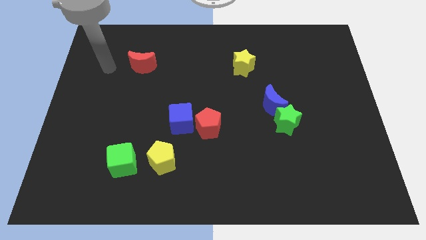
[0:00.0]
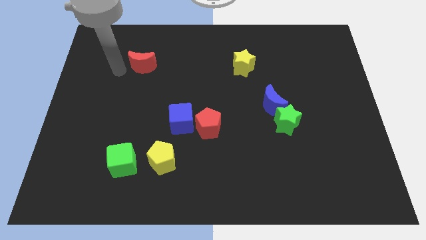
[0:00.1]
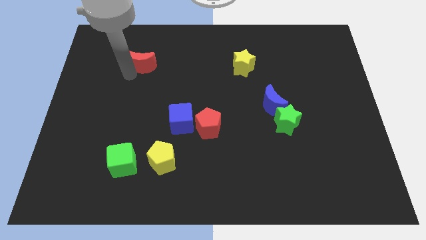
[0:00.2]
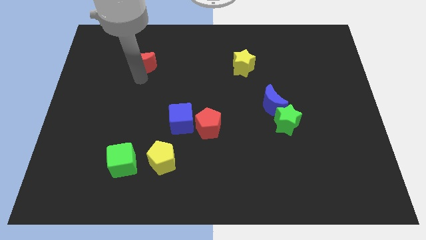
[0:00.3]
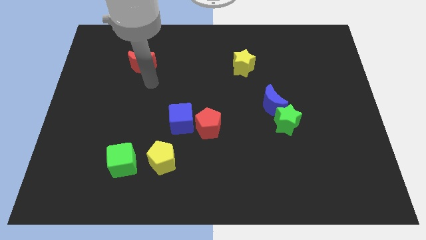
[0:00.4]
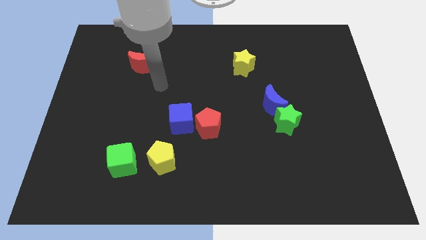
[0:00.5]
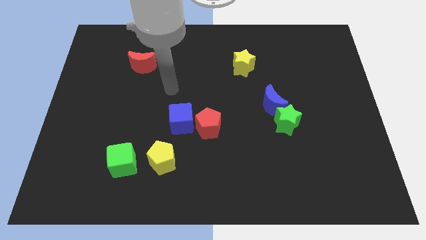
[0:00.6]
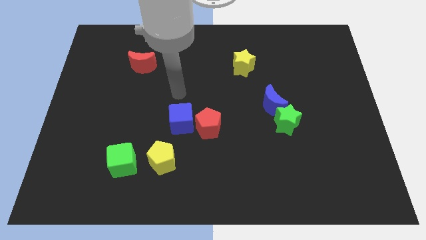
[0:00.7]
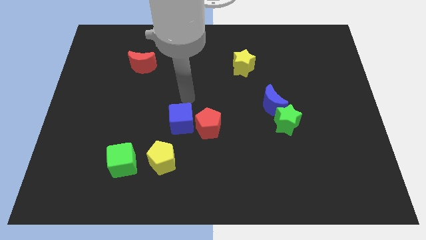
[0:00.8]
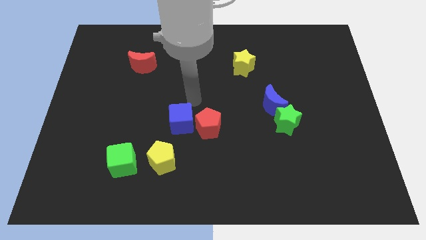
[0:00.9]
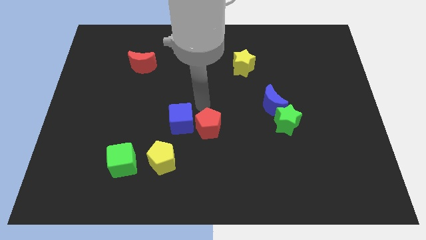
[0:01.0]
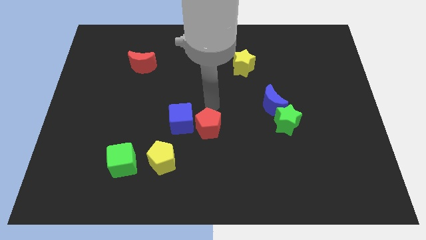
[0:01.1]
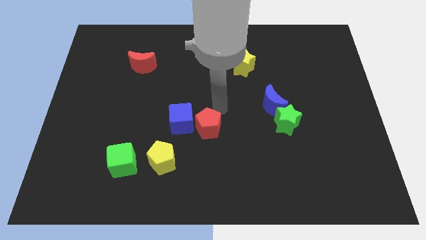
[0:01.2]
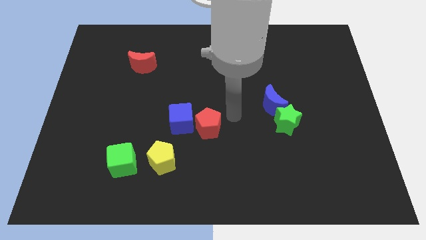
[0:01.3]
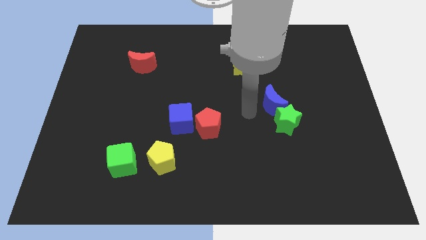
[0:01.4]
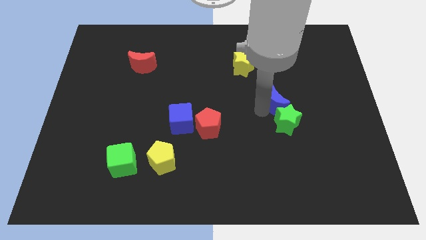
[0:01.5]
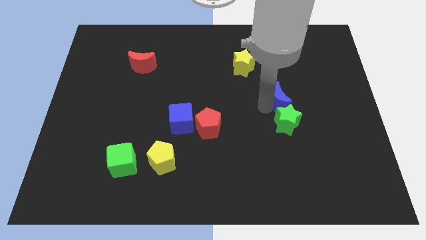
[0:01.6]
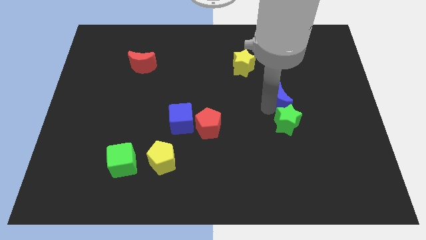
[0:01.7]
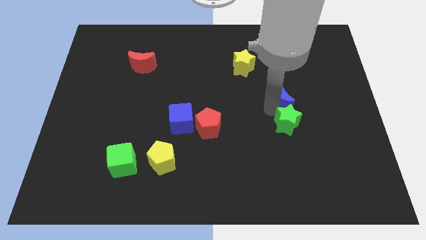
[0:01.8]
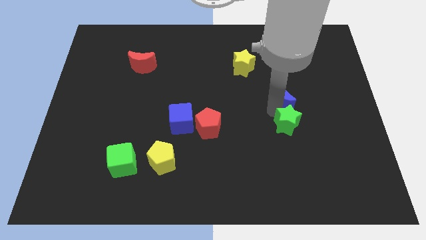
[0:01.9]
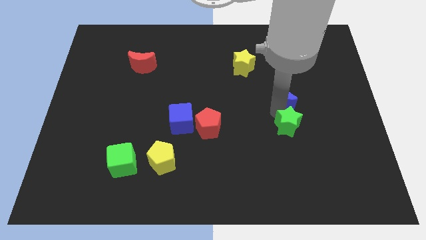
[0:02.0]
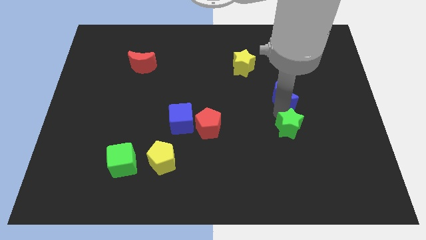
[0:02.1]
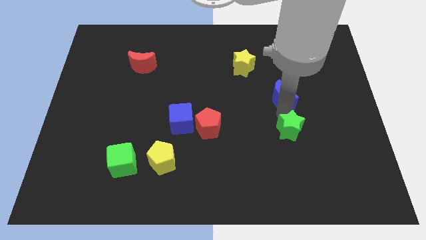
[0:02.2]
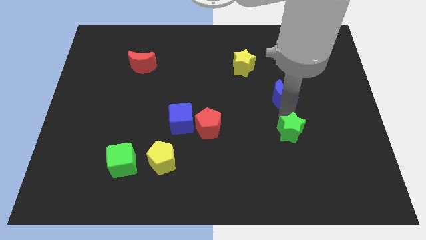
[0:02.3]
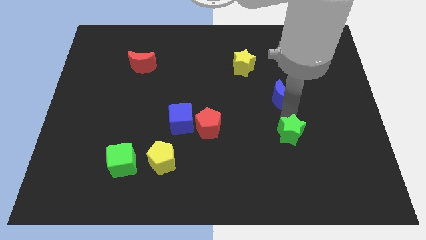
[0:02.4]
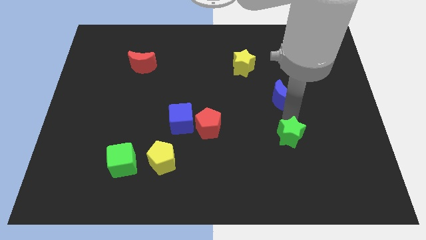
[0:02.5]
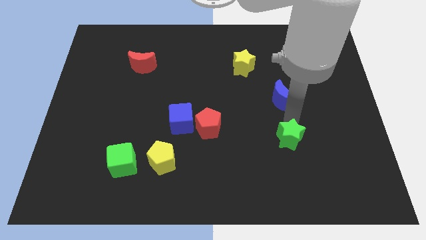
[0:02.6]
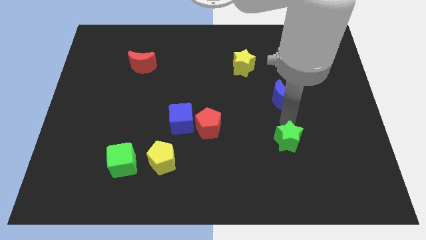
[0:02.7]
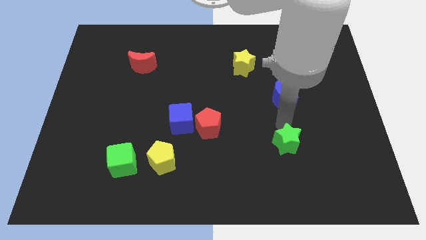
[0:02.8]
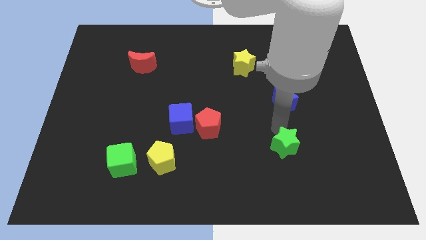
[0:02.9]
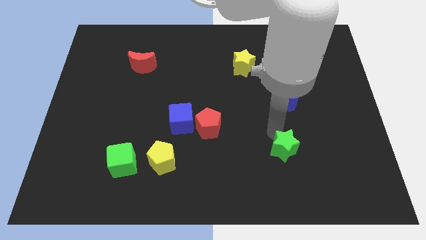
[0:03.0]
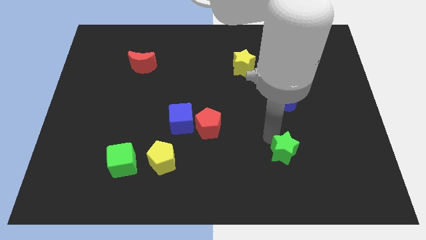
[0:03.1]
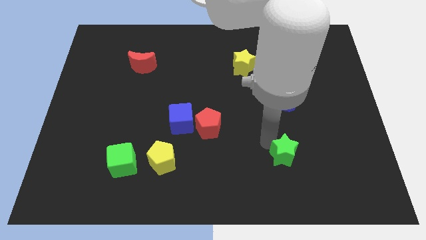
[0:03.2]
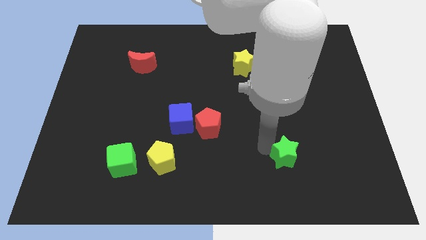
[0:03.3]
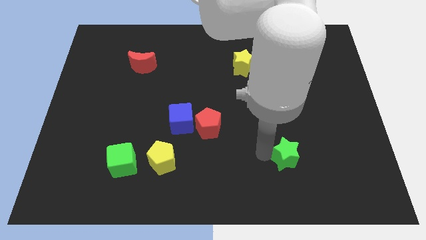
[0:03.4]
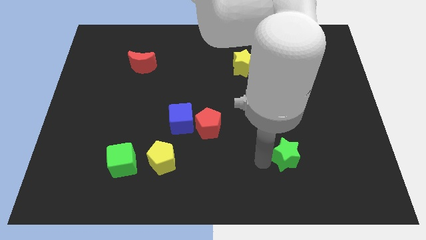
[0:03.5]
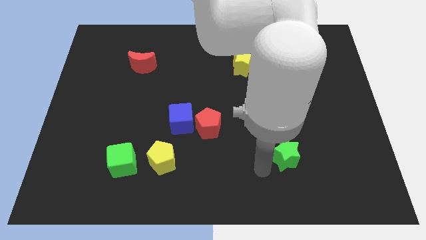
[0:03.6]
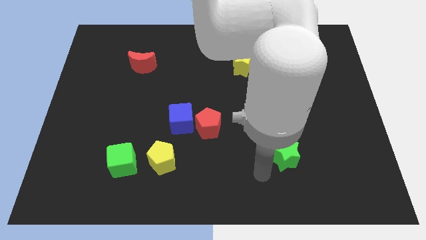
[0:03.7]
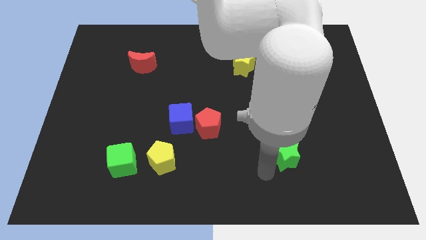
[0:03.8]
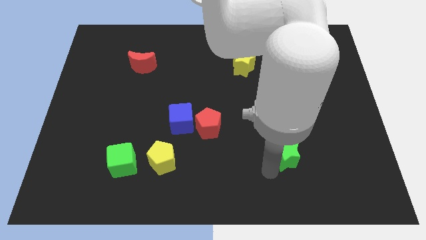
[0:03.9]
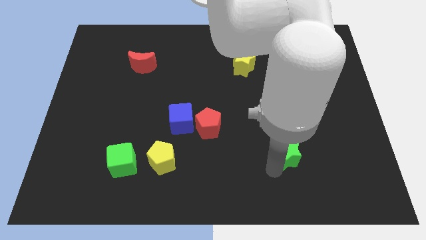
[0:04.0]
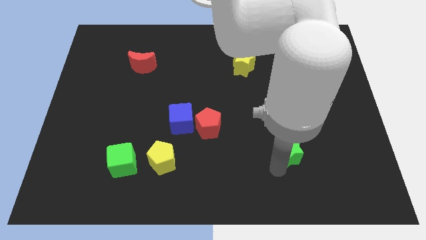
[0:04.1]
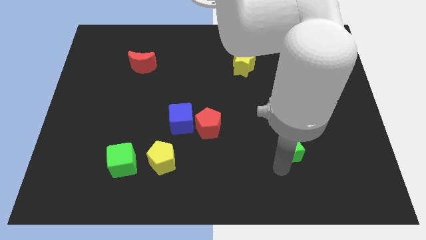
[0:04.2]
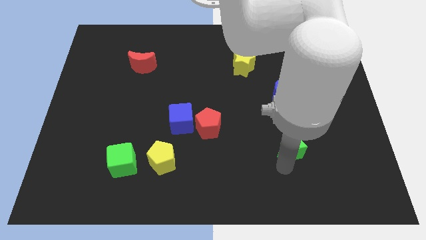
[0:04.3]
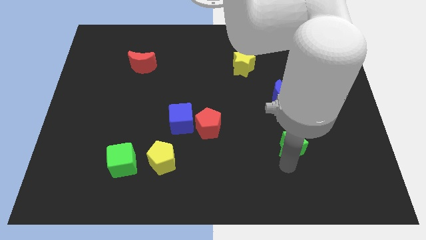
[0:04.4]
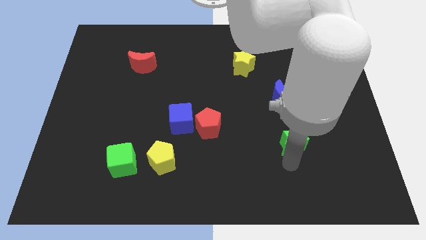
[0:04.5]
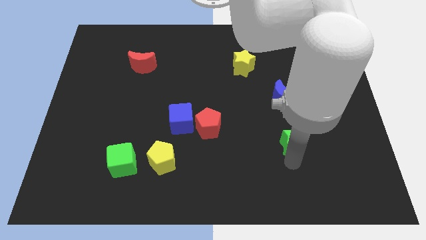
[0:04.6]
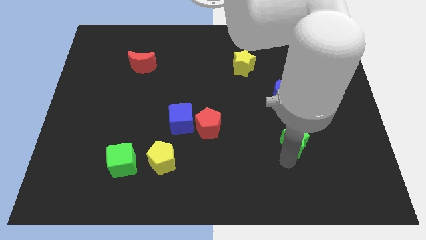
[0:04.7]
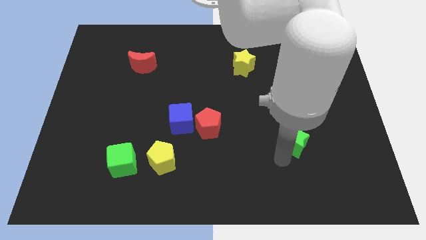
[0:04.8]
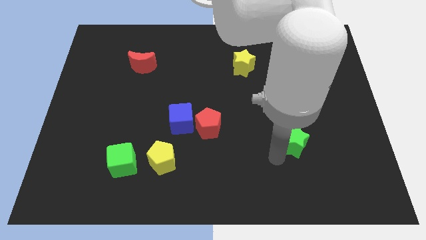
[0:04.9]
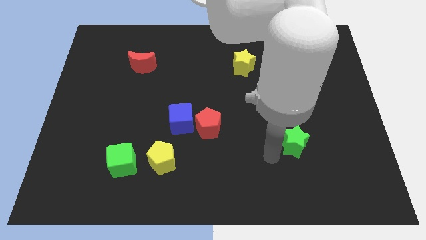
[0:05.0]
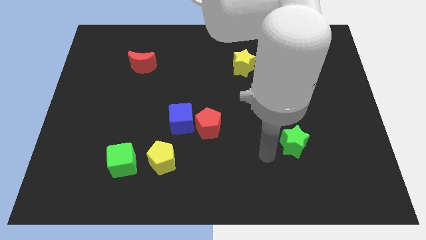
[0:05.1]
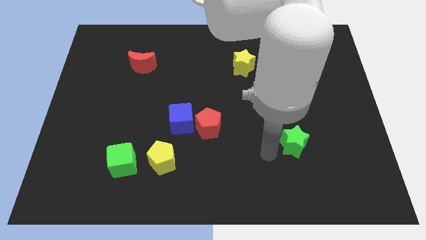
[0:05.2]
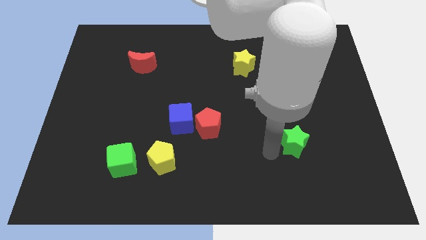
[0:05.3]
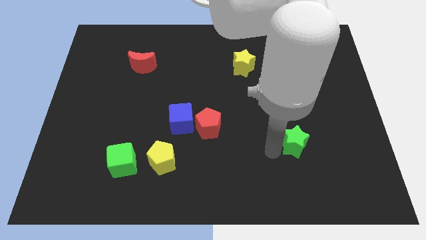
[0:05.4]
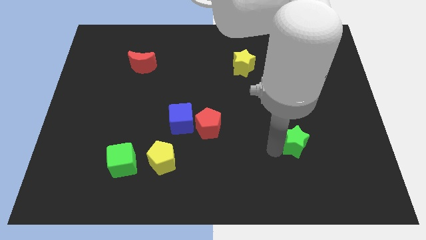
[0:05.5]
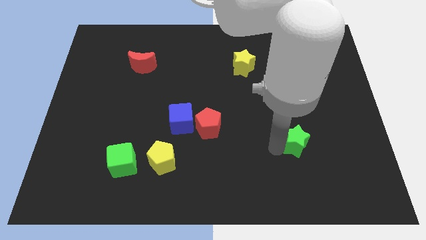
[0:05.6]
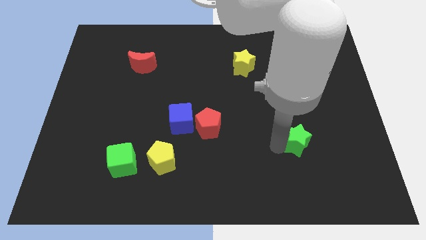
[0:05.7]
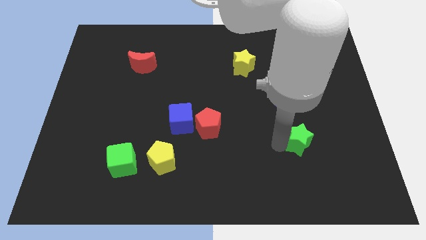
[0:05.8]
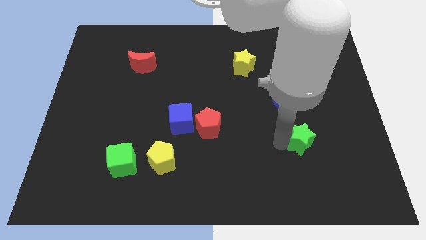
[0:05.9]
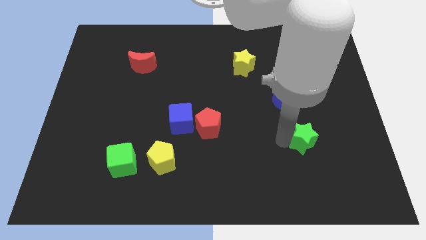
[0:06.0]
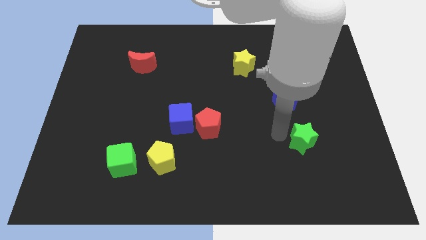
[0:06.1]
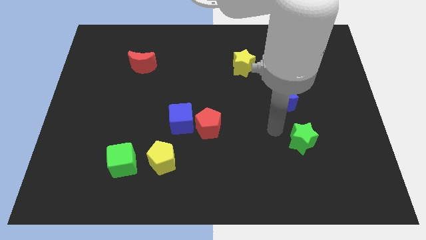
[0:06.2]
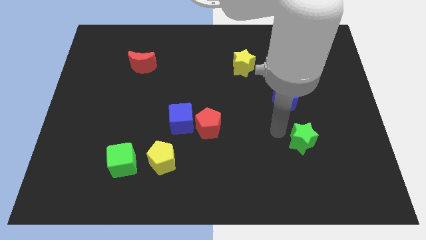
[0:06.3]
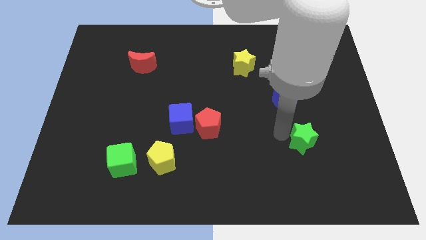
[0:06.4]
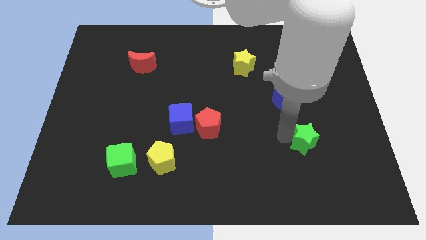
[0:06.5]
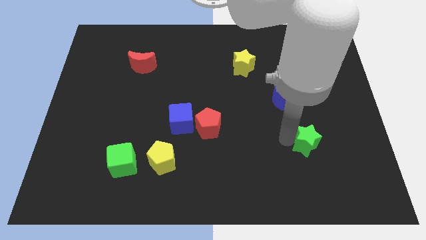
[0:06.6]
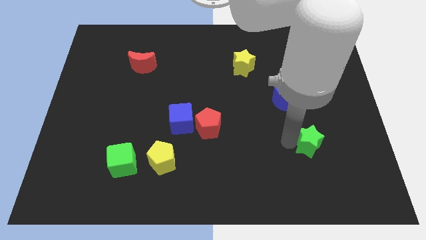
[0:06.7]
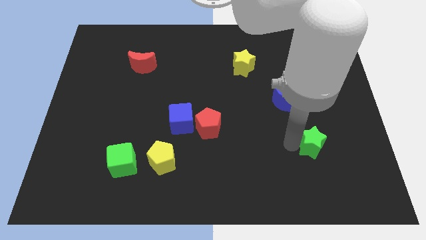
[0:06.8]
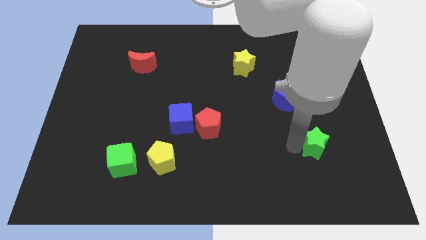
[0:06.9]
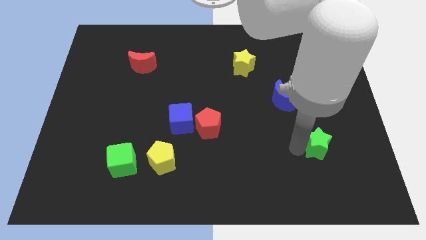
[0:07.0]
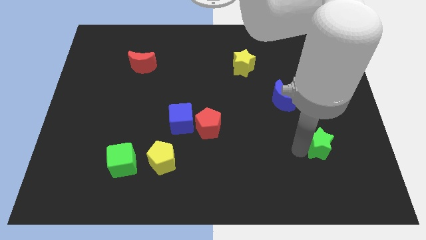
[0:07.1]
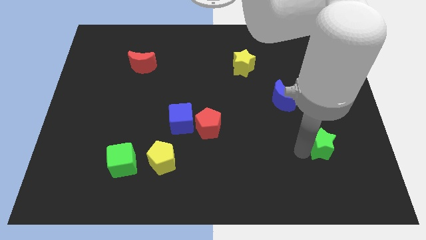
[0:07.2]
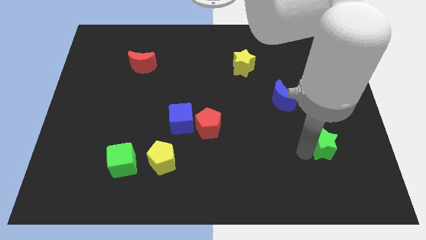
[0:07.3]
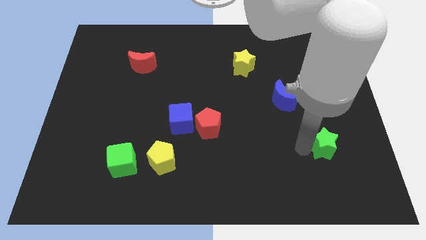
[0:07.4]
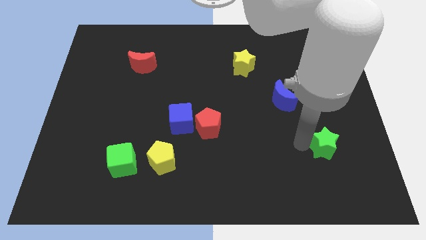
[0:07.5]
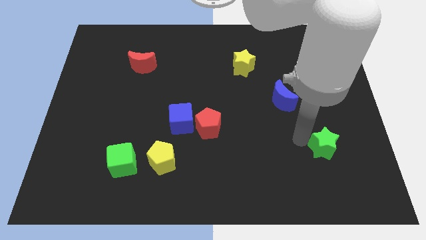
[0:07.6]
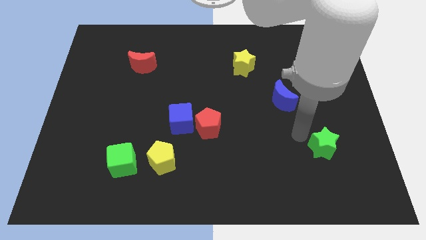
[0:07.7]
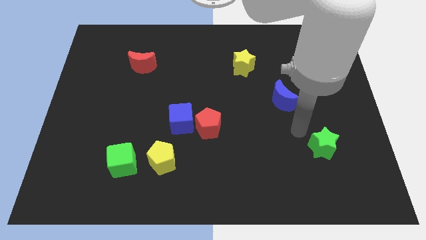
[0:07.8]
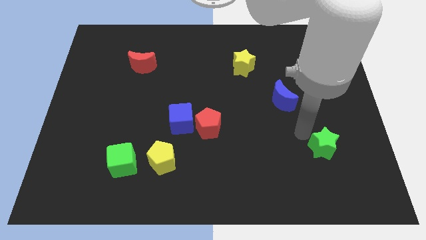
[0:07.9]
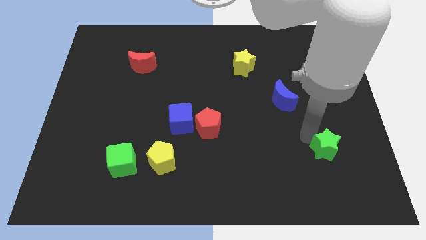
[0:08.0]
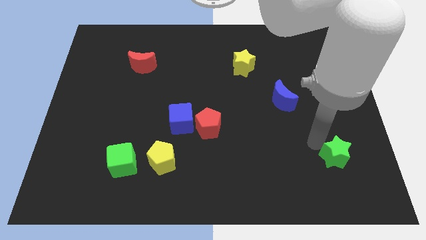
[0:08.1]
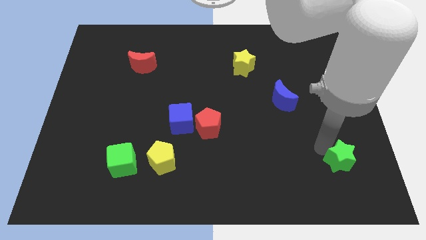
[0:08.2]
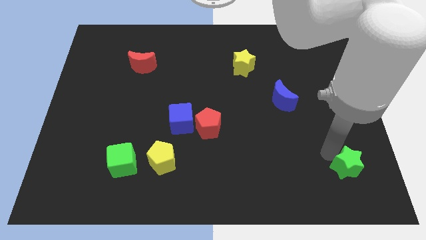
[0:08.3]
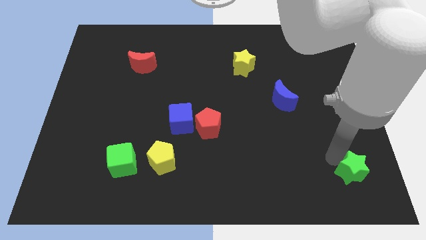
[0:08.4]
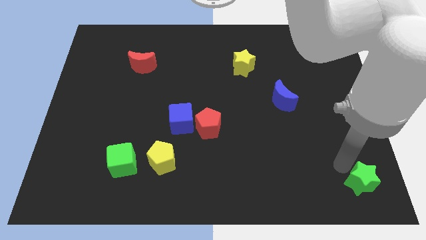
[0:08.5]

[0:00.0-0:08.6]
put the green star to the bottom right of the board
